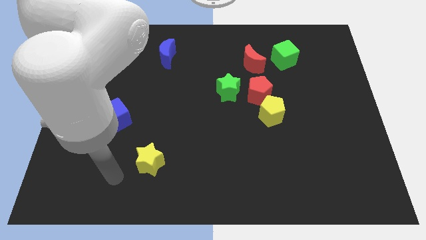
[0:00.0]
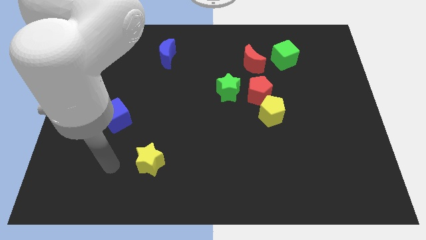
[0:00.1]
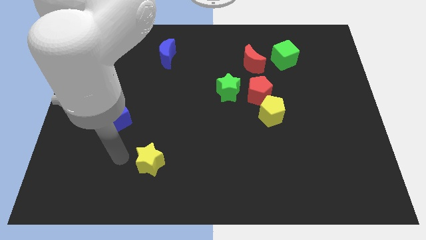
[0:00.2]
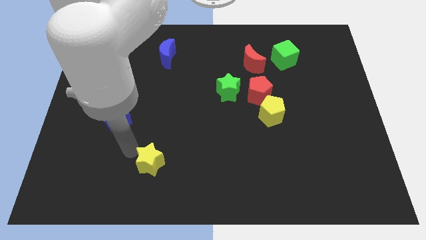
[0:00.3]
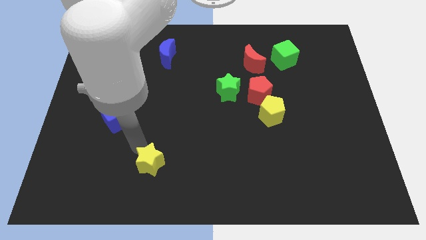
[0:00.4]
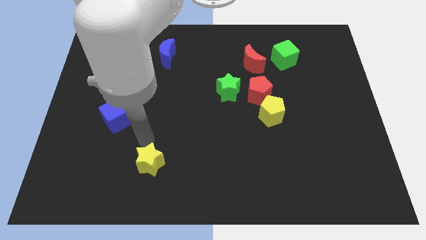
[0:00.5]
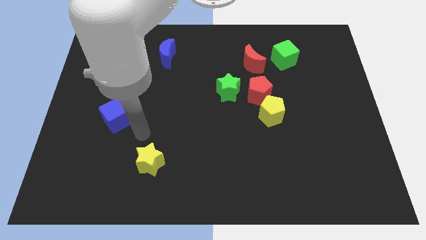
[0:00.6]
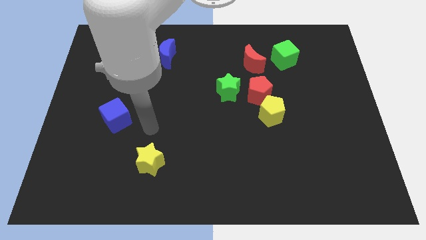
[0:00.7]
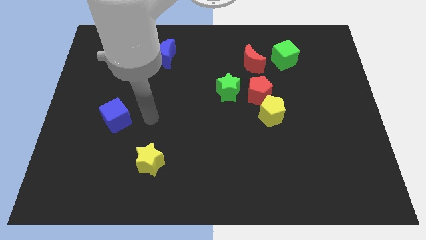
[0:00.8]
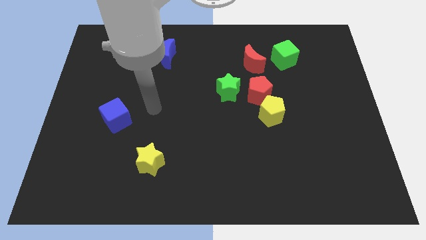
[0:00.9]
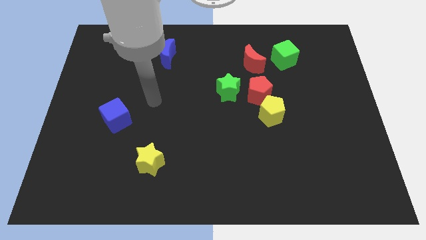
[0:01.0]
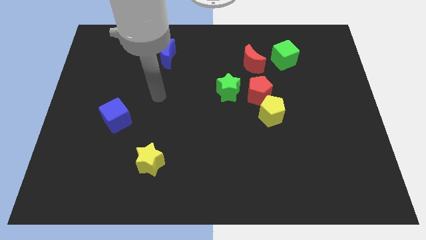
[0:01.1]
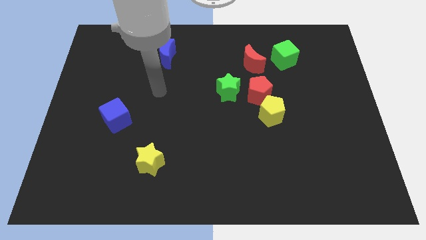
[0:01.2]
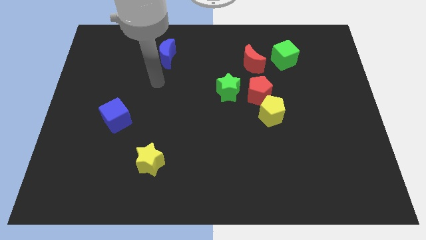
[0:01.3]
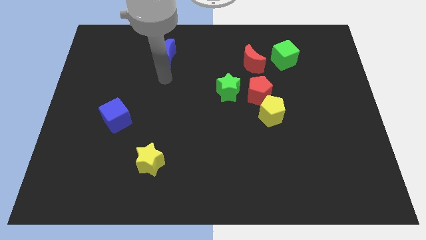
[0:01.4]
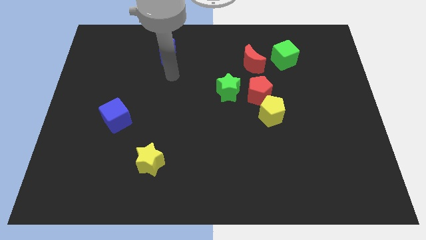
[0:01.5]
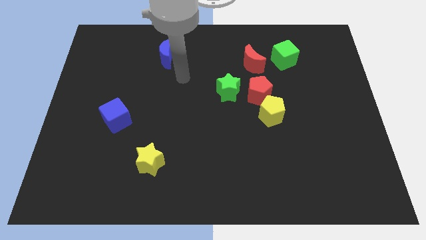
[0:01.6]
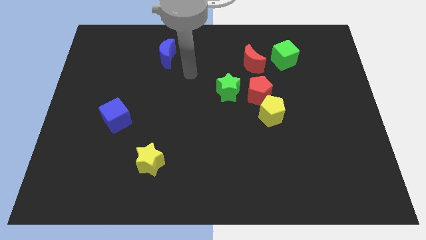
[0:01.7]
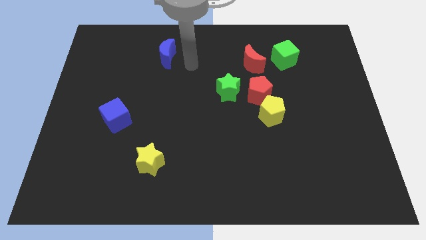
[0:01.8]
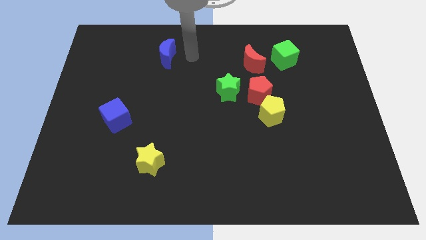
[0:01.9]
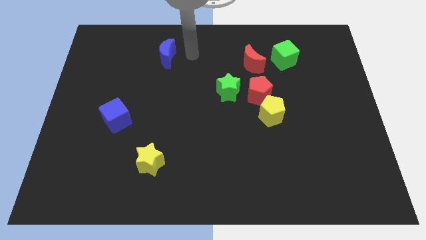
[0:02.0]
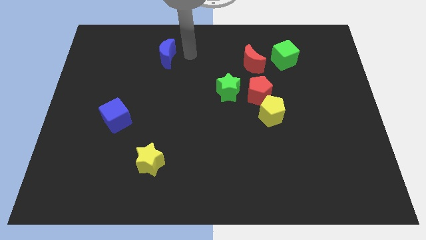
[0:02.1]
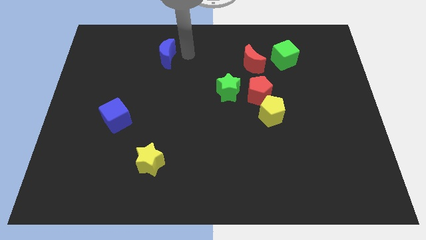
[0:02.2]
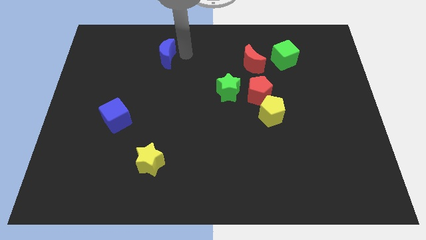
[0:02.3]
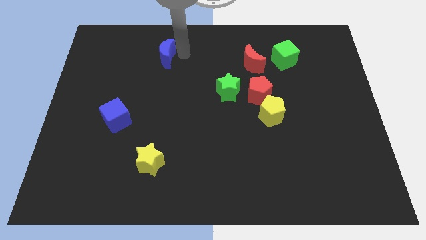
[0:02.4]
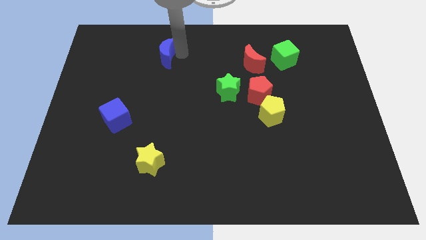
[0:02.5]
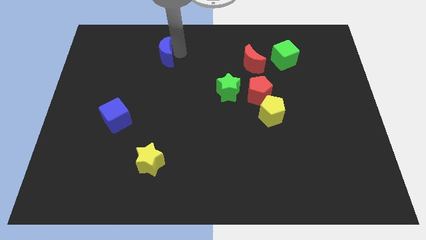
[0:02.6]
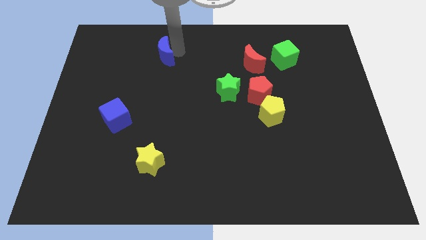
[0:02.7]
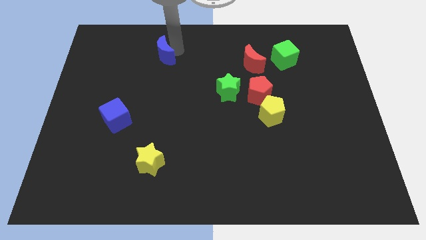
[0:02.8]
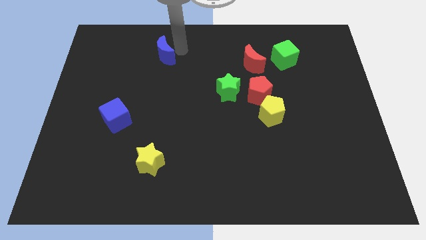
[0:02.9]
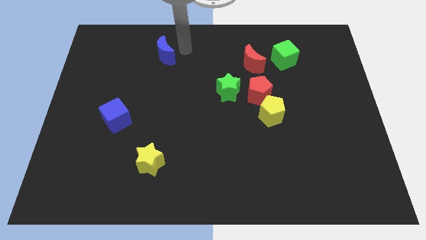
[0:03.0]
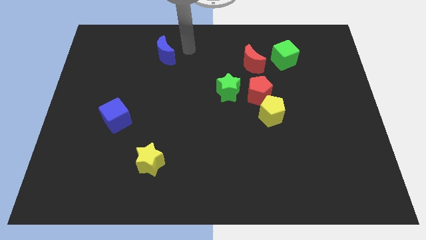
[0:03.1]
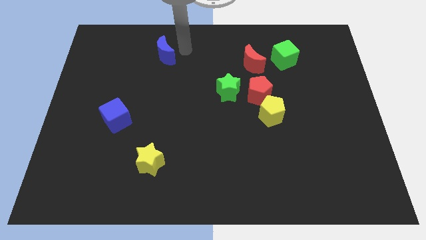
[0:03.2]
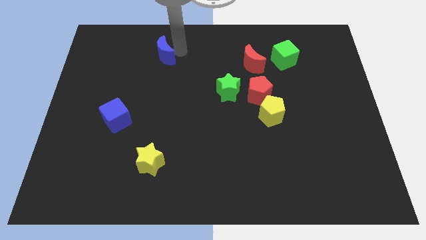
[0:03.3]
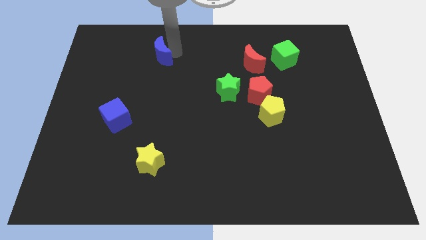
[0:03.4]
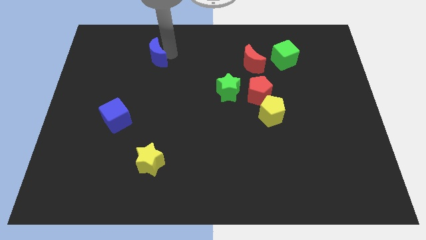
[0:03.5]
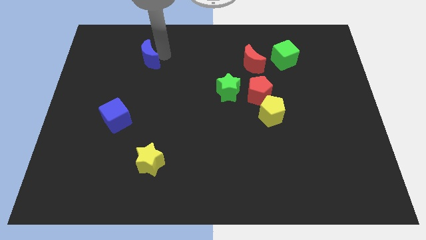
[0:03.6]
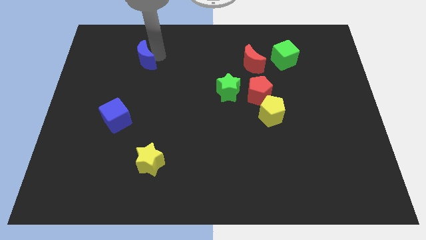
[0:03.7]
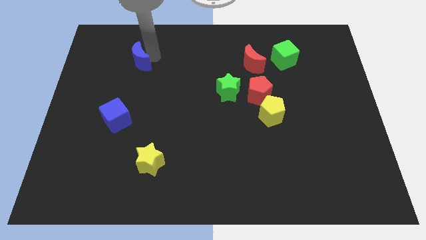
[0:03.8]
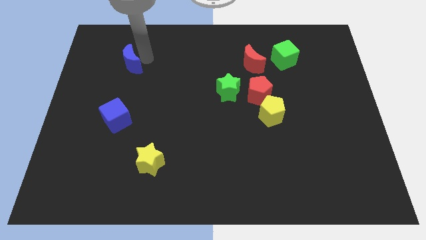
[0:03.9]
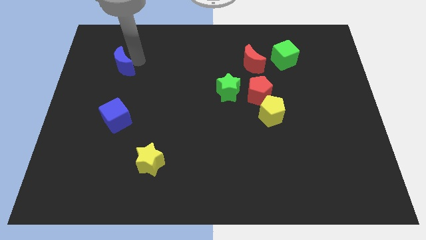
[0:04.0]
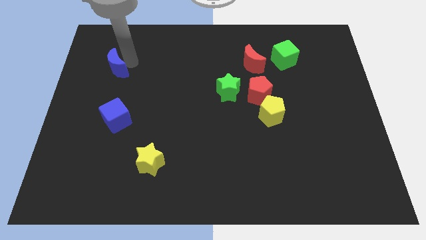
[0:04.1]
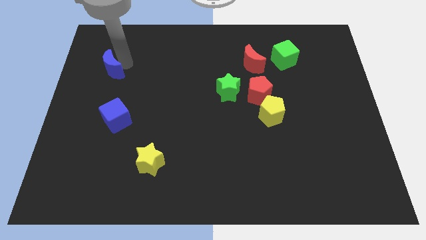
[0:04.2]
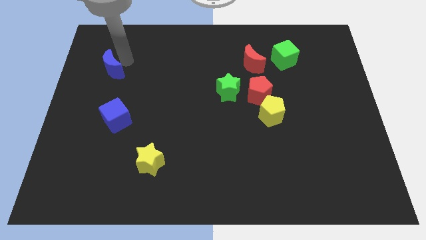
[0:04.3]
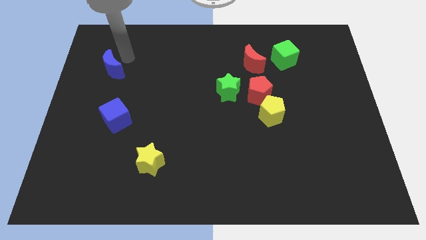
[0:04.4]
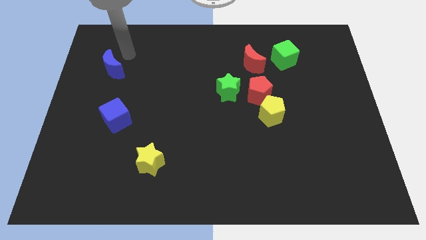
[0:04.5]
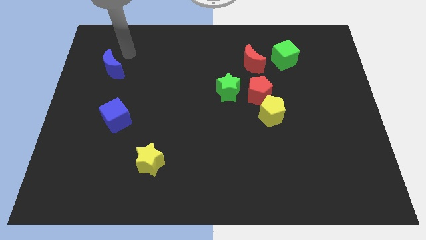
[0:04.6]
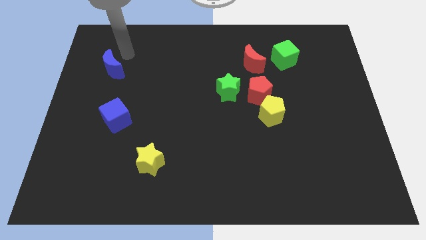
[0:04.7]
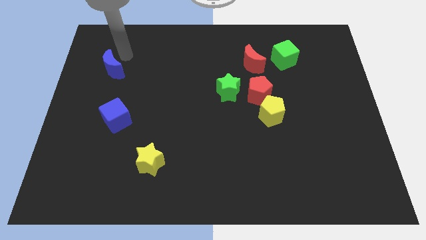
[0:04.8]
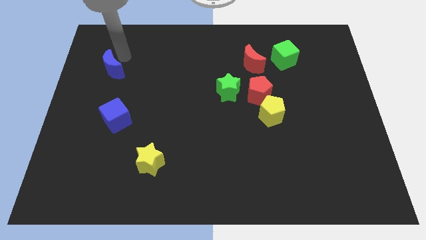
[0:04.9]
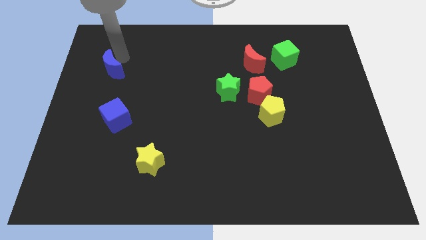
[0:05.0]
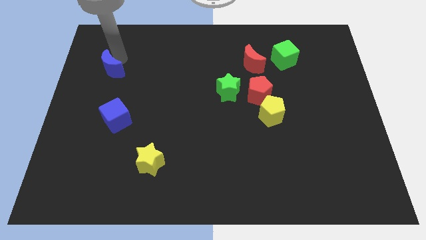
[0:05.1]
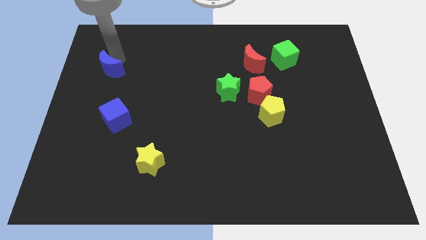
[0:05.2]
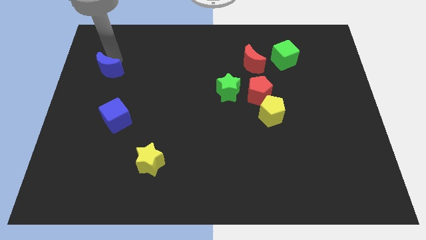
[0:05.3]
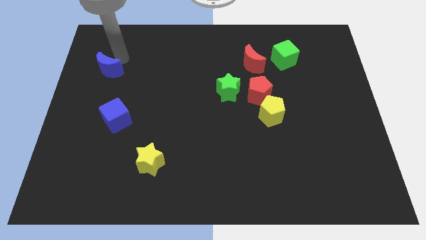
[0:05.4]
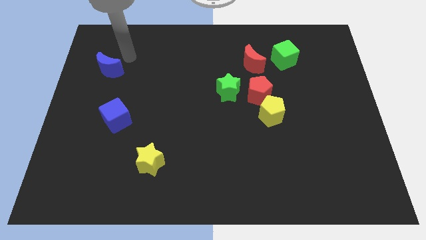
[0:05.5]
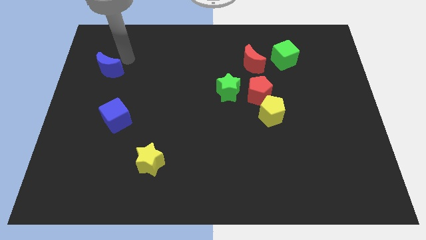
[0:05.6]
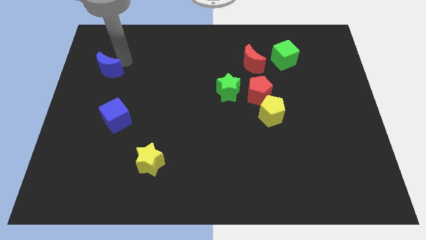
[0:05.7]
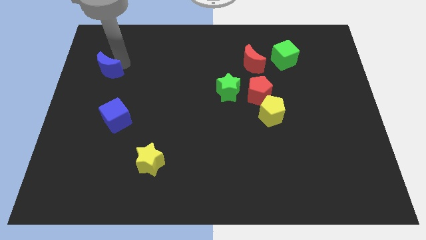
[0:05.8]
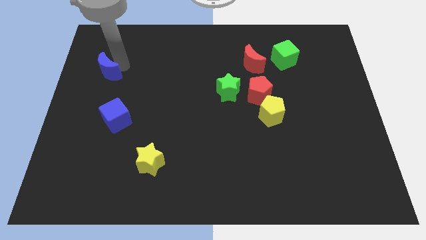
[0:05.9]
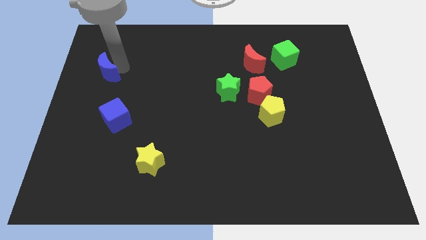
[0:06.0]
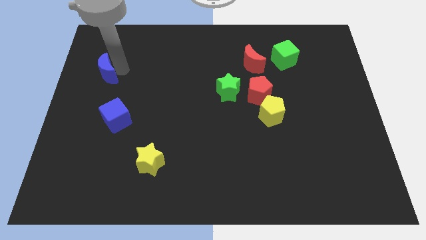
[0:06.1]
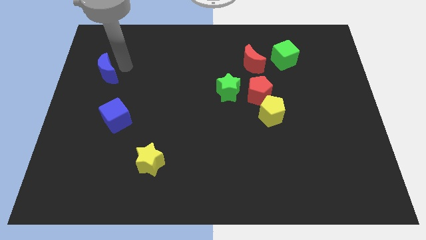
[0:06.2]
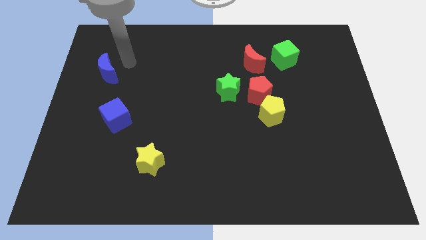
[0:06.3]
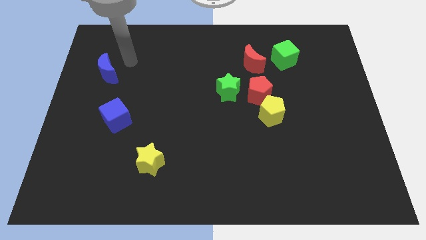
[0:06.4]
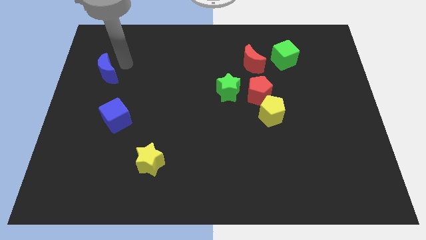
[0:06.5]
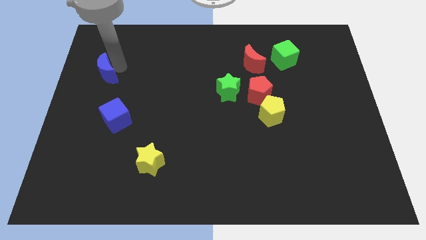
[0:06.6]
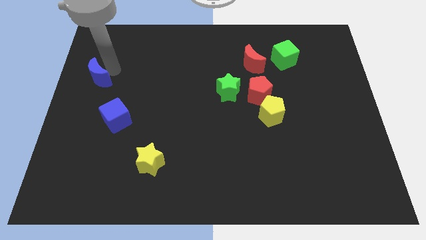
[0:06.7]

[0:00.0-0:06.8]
put the blue moon to the left side

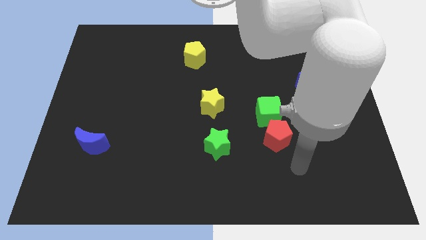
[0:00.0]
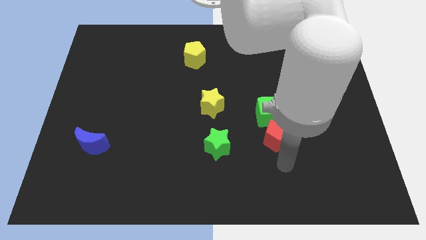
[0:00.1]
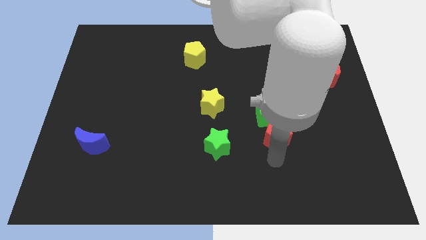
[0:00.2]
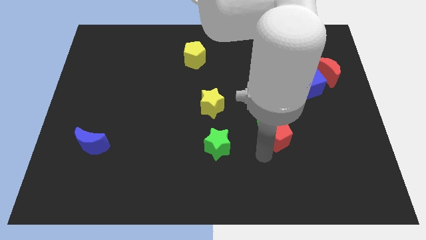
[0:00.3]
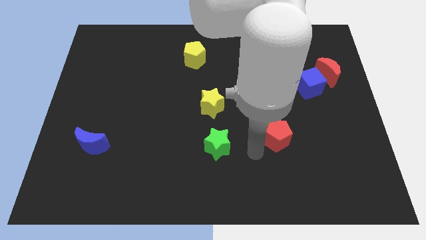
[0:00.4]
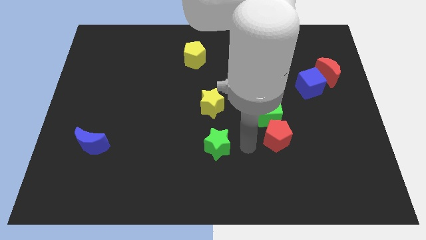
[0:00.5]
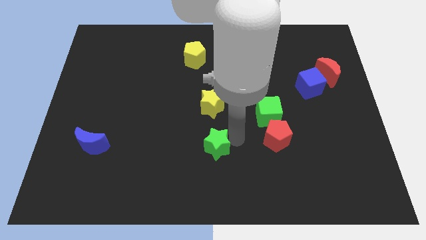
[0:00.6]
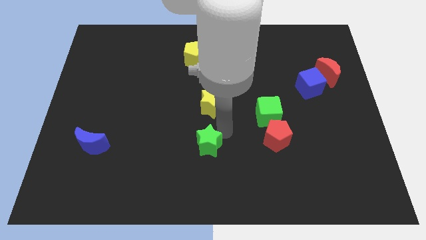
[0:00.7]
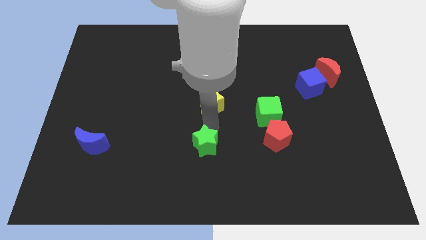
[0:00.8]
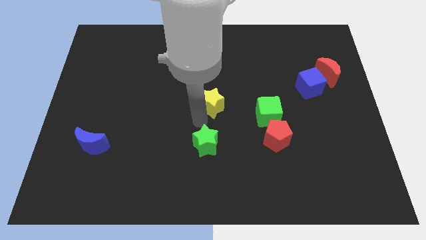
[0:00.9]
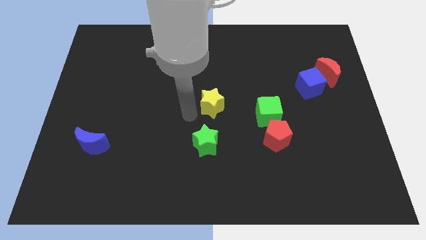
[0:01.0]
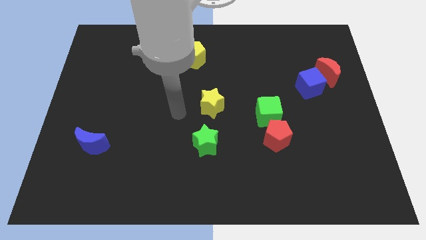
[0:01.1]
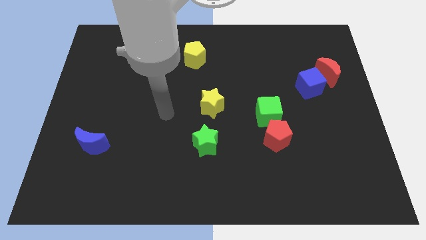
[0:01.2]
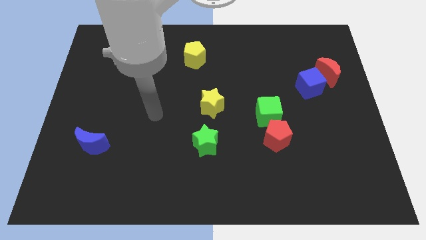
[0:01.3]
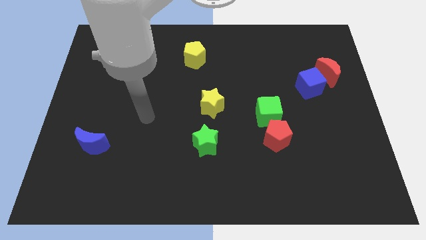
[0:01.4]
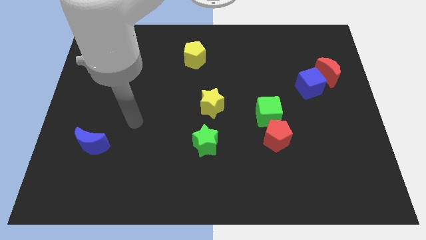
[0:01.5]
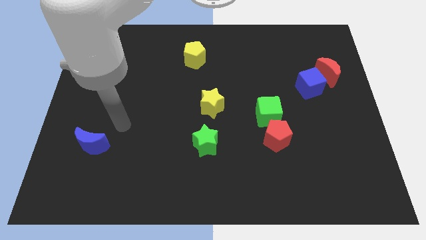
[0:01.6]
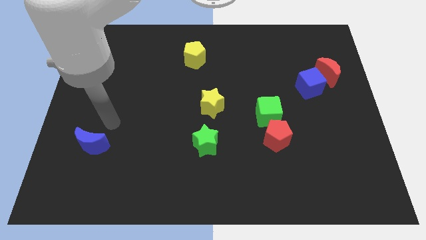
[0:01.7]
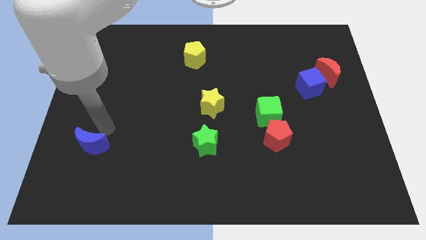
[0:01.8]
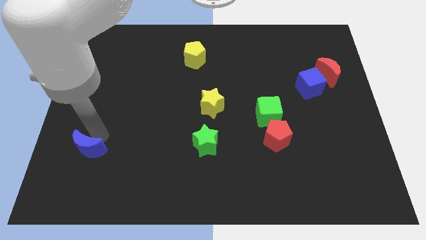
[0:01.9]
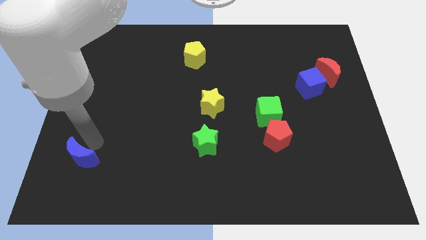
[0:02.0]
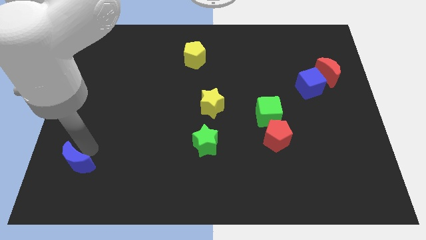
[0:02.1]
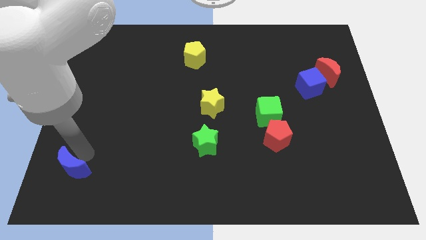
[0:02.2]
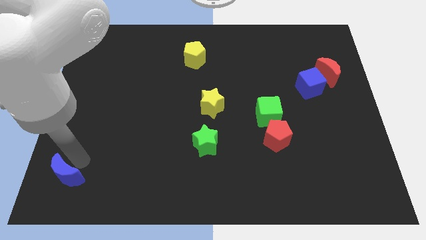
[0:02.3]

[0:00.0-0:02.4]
push the blue moon to the bottom left corner
